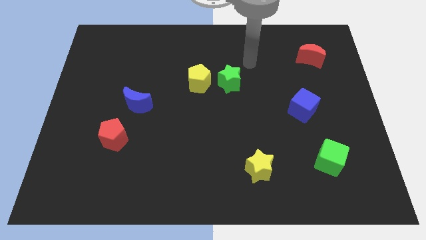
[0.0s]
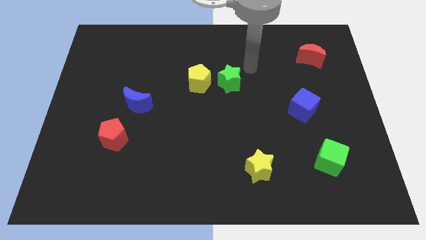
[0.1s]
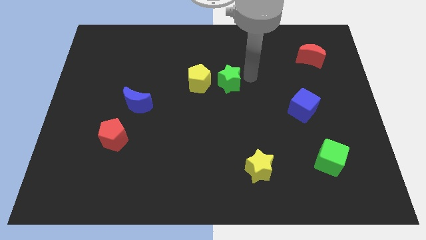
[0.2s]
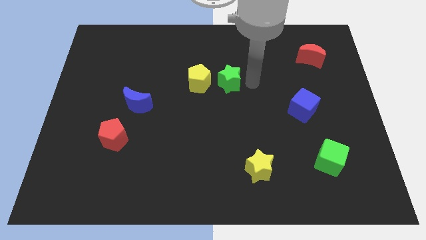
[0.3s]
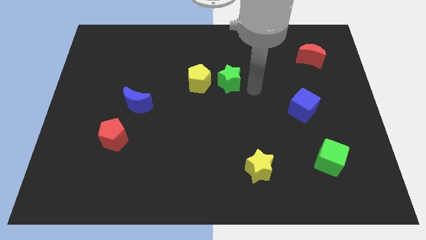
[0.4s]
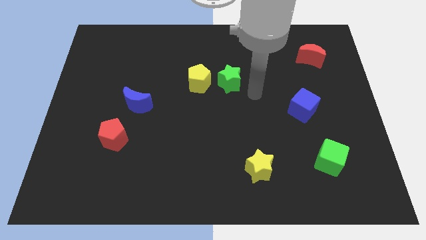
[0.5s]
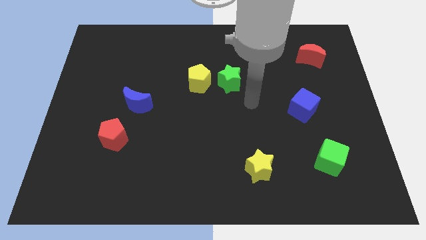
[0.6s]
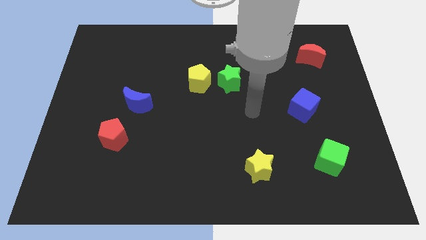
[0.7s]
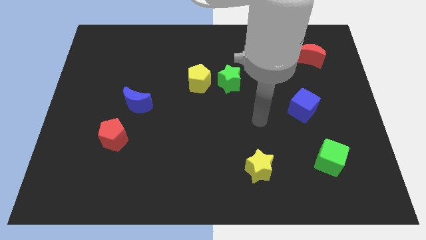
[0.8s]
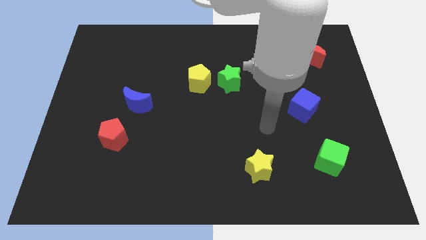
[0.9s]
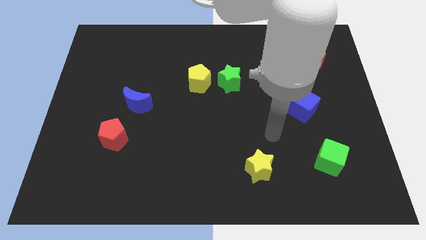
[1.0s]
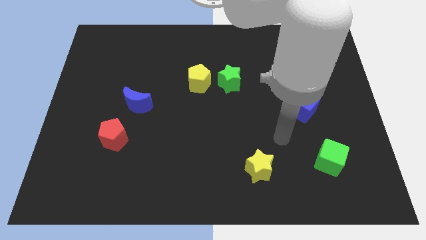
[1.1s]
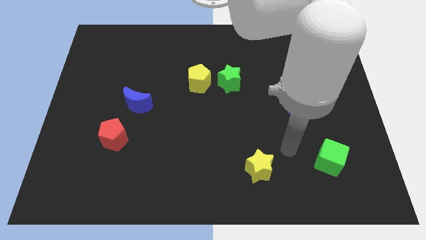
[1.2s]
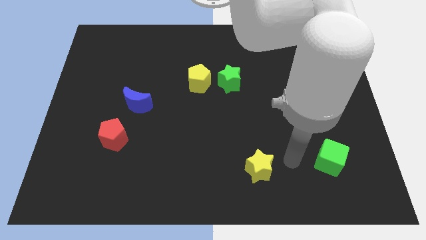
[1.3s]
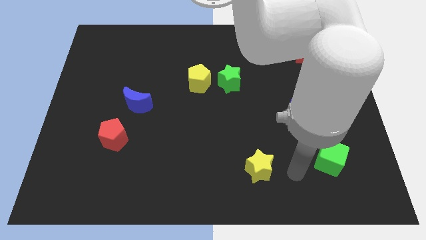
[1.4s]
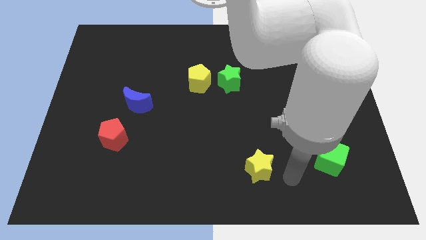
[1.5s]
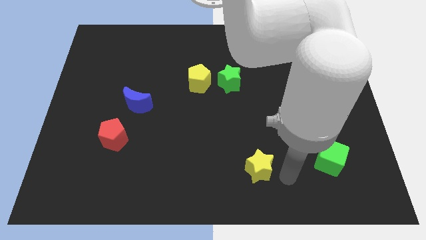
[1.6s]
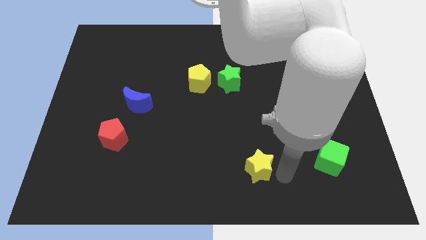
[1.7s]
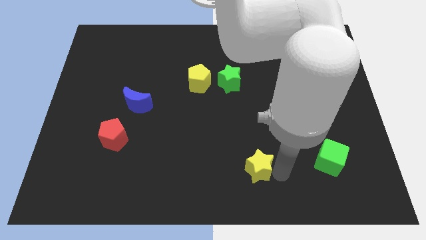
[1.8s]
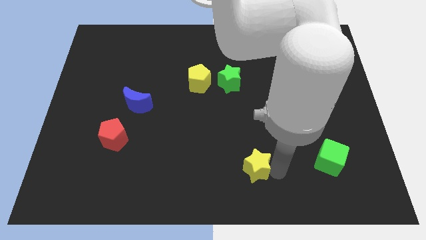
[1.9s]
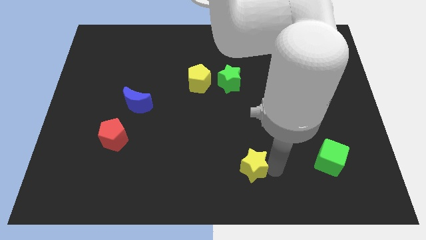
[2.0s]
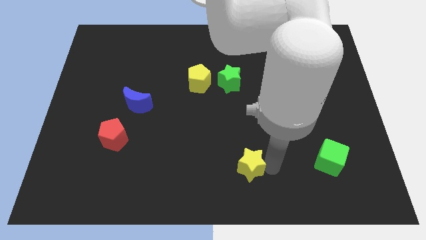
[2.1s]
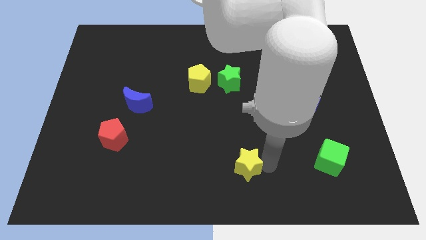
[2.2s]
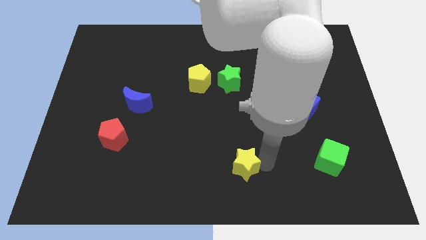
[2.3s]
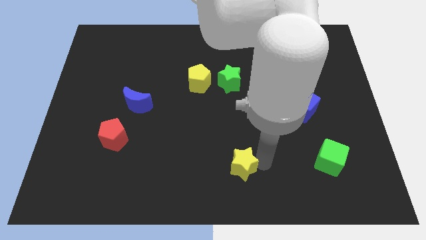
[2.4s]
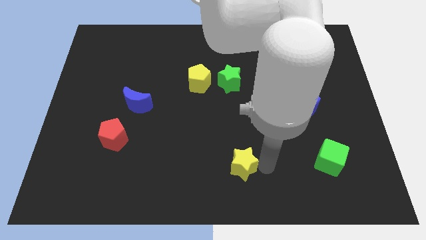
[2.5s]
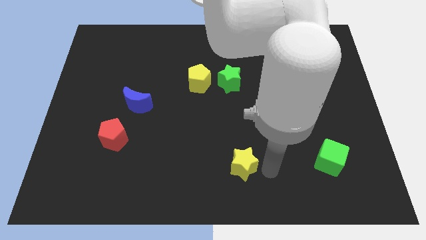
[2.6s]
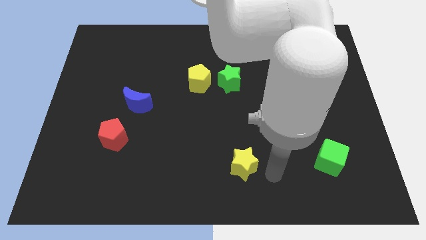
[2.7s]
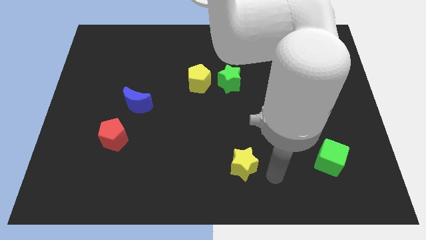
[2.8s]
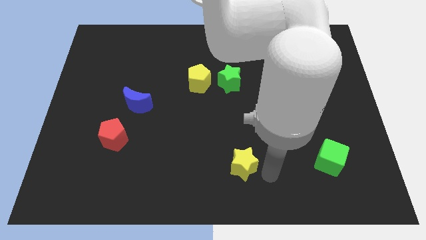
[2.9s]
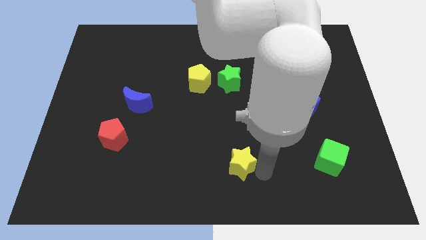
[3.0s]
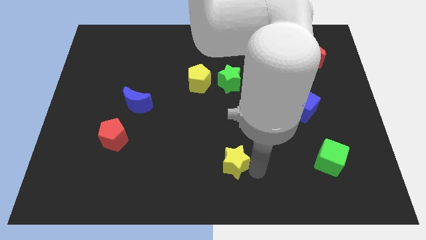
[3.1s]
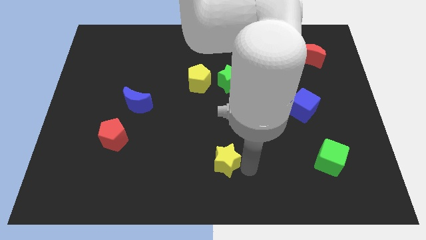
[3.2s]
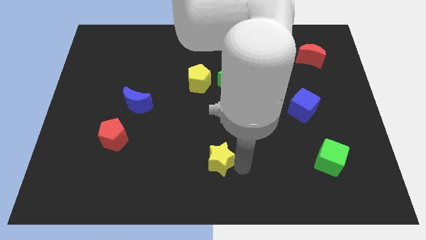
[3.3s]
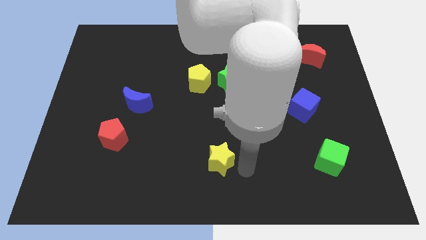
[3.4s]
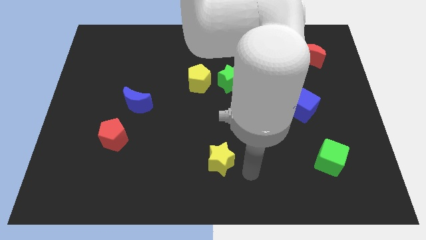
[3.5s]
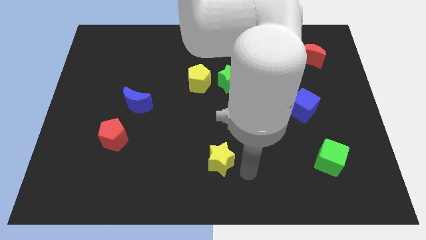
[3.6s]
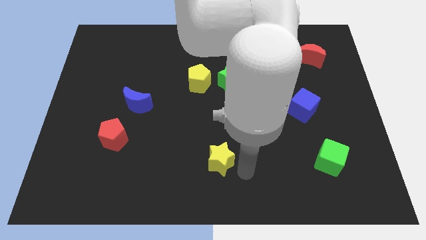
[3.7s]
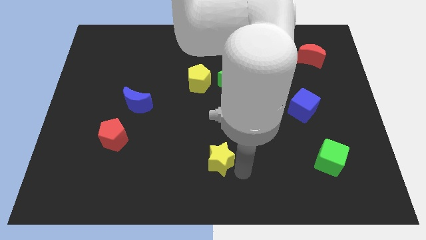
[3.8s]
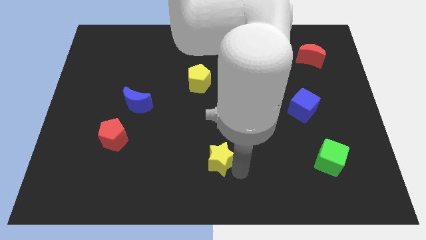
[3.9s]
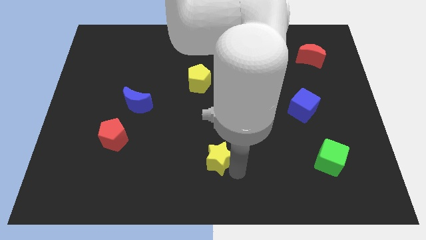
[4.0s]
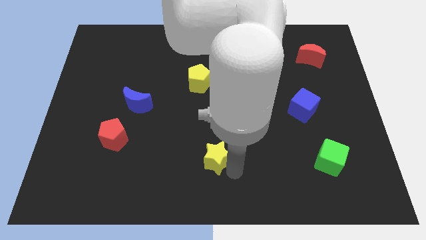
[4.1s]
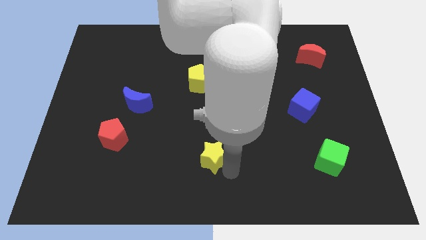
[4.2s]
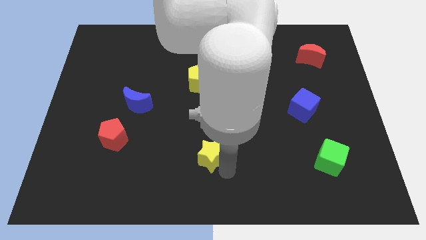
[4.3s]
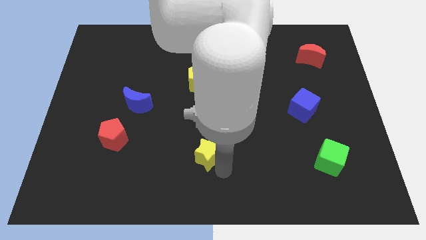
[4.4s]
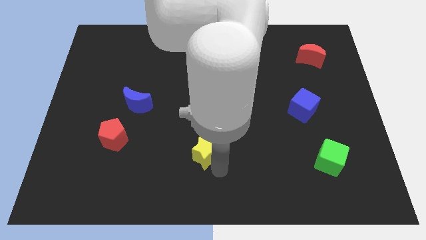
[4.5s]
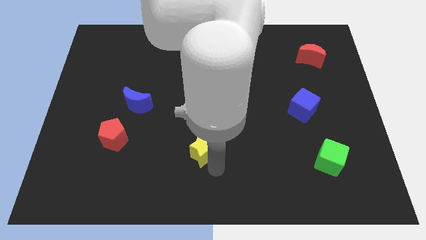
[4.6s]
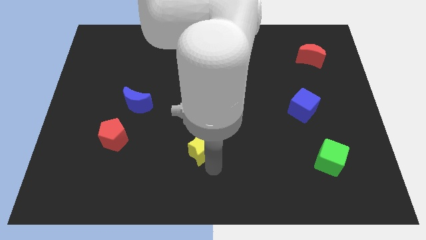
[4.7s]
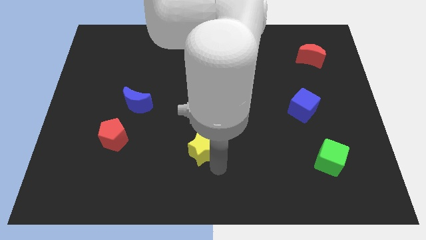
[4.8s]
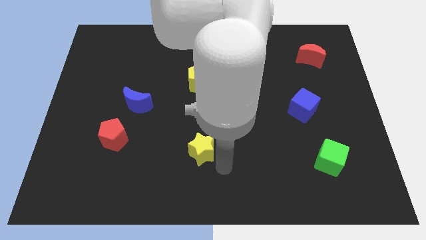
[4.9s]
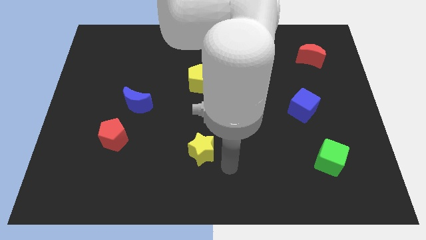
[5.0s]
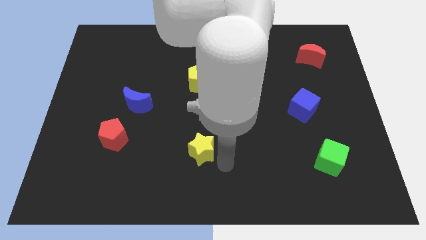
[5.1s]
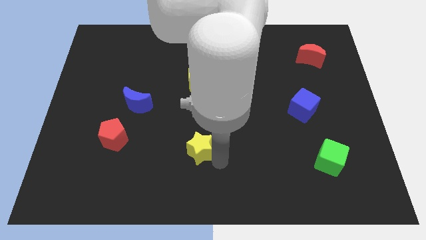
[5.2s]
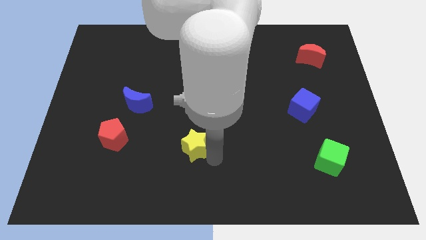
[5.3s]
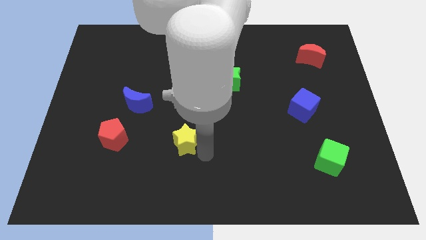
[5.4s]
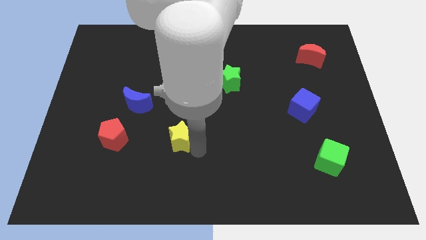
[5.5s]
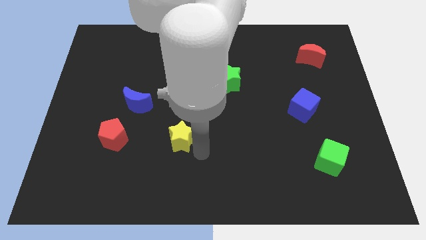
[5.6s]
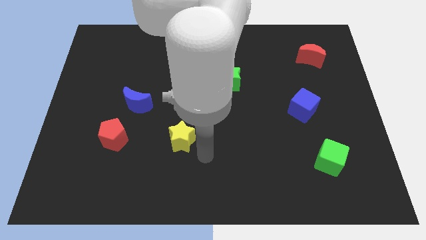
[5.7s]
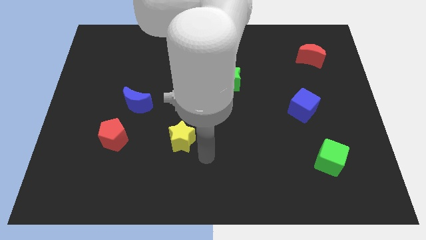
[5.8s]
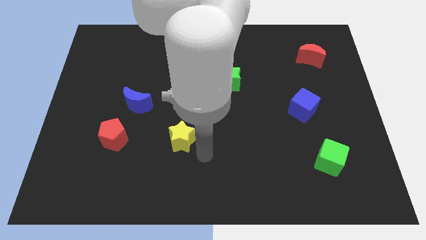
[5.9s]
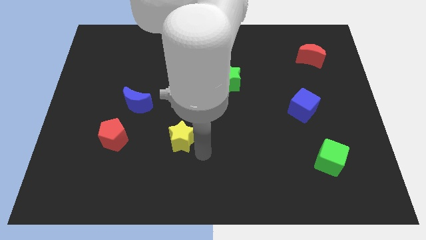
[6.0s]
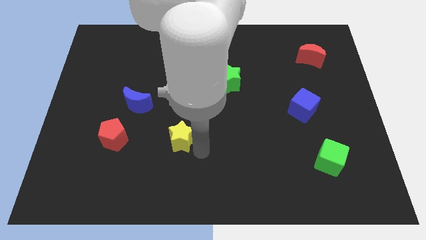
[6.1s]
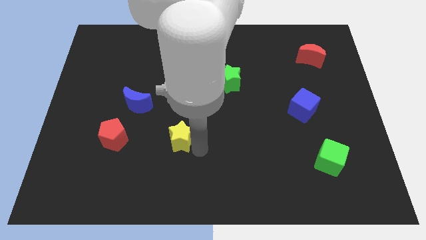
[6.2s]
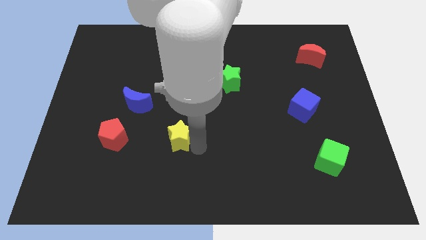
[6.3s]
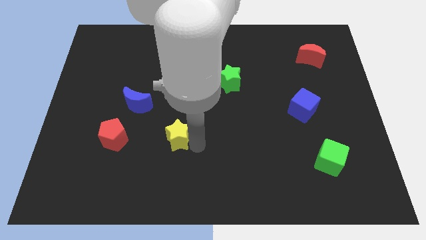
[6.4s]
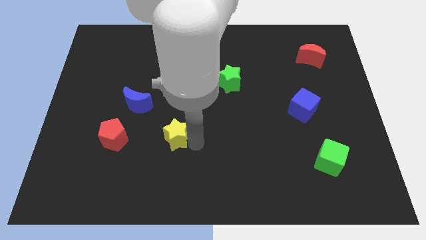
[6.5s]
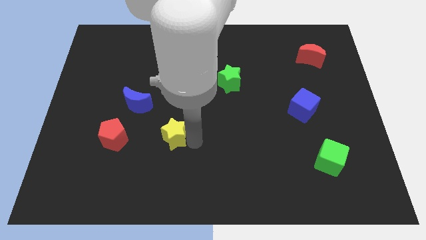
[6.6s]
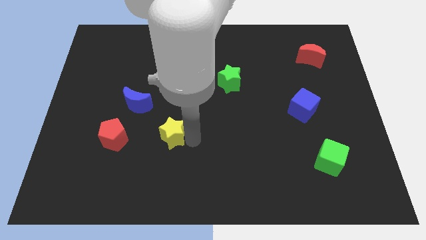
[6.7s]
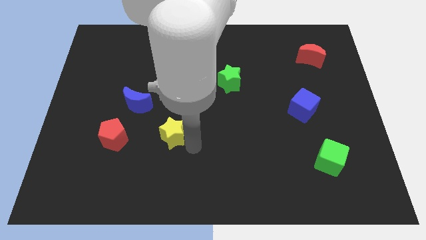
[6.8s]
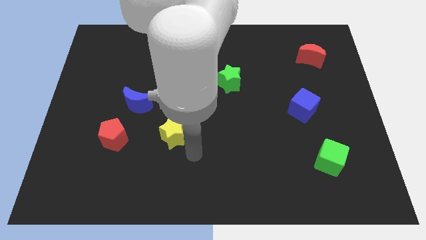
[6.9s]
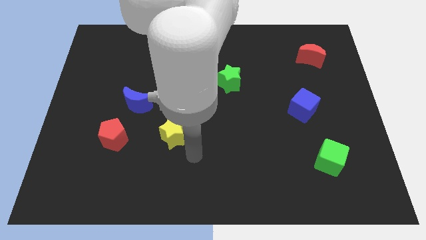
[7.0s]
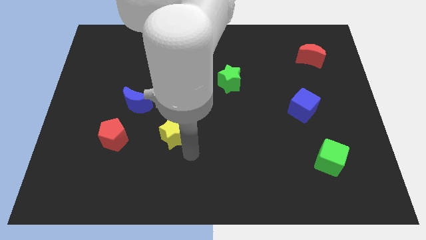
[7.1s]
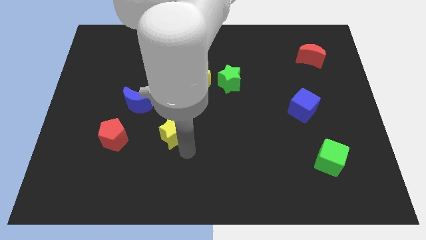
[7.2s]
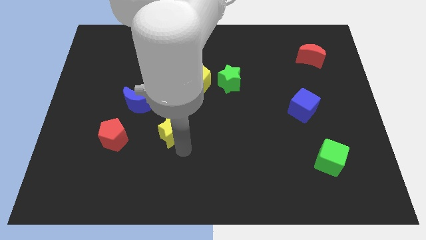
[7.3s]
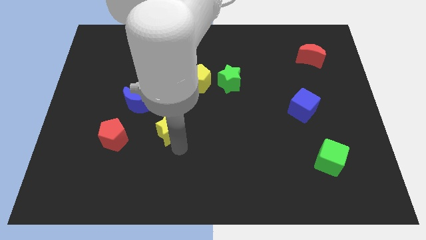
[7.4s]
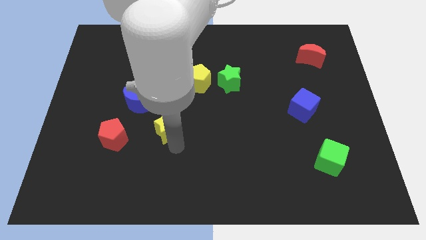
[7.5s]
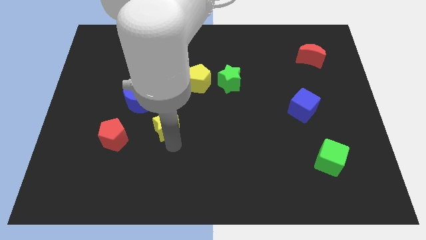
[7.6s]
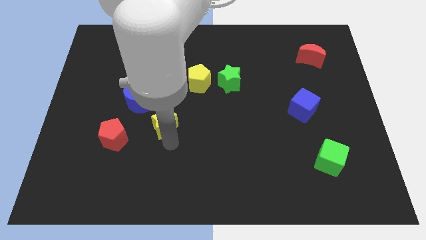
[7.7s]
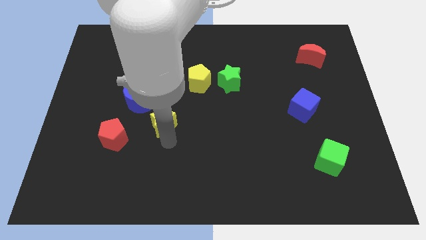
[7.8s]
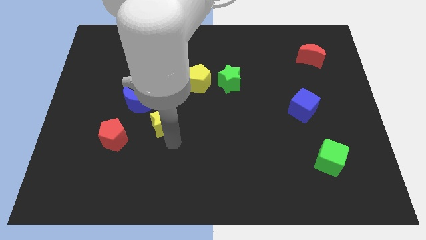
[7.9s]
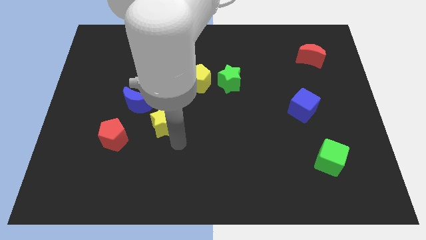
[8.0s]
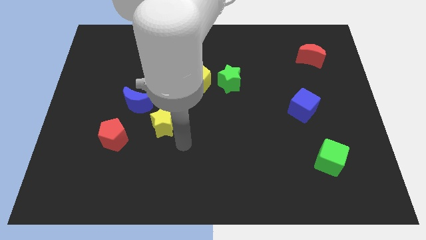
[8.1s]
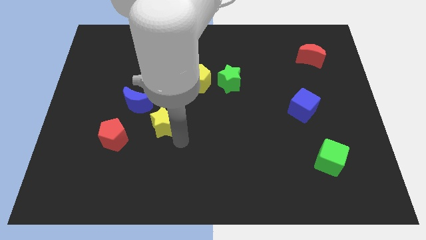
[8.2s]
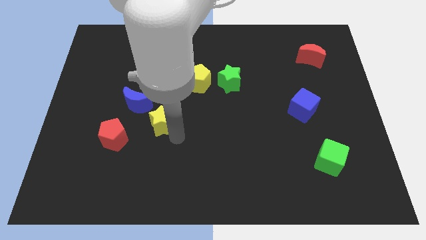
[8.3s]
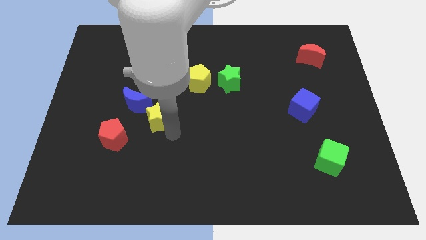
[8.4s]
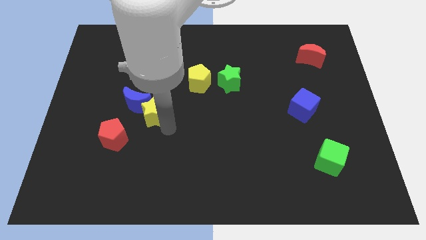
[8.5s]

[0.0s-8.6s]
push the yellow star towards the blue moon
